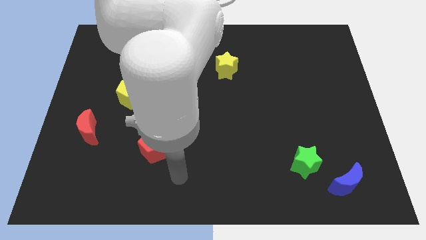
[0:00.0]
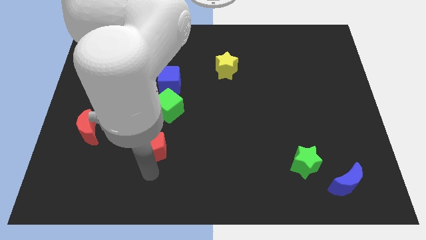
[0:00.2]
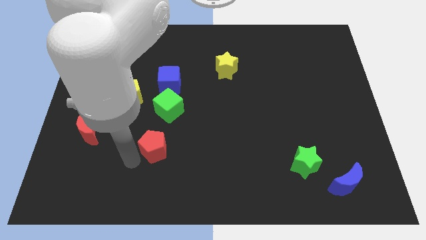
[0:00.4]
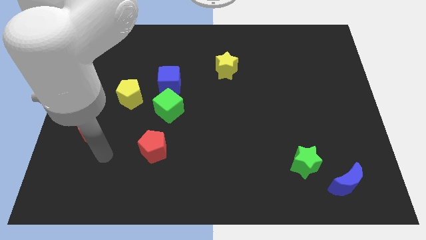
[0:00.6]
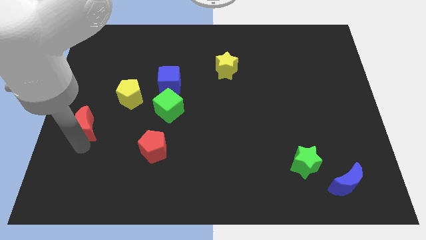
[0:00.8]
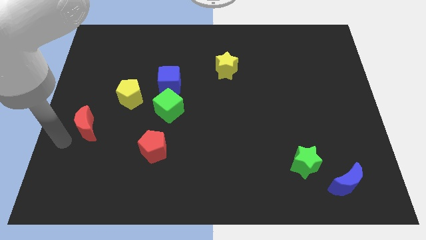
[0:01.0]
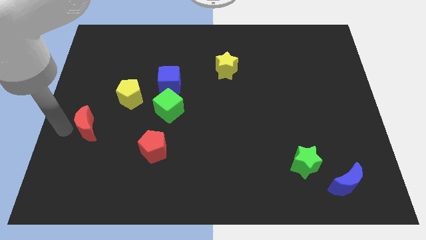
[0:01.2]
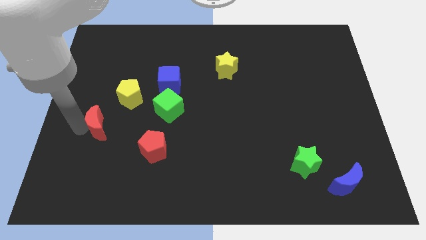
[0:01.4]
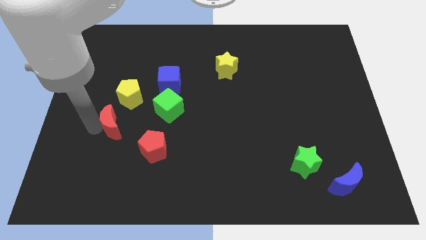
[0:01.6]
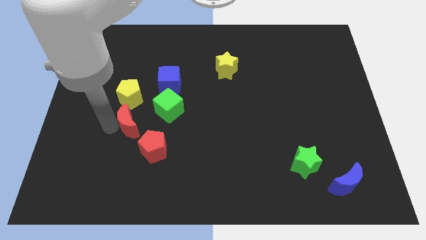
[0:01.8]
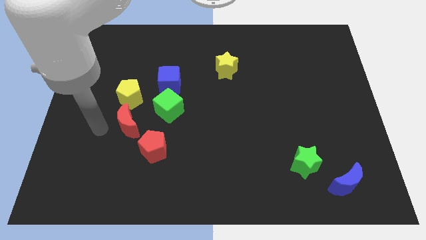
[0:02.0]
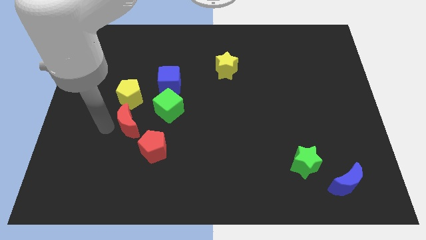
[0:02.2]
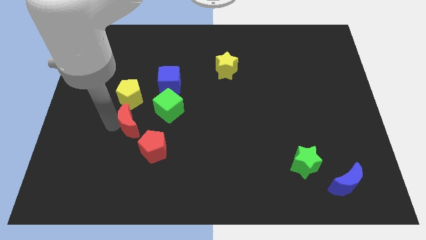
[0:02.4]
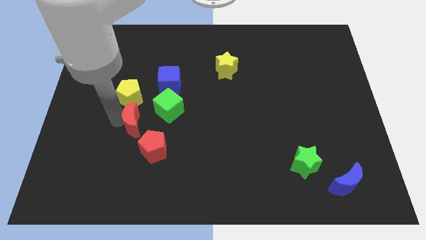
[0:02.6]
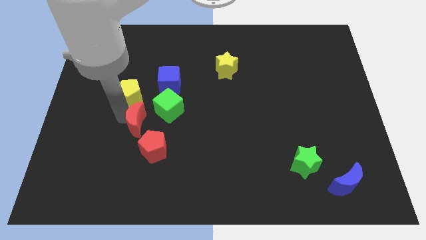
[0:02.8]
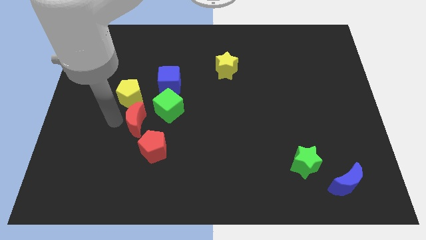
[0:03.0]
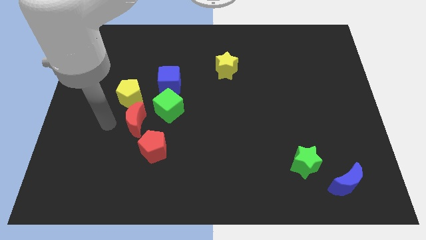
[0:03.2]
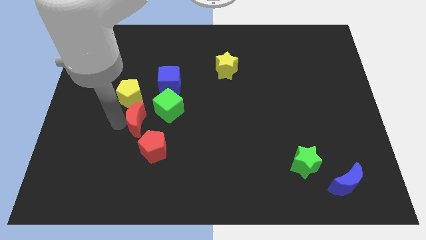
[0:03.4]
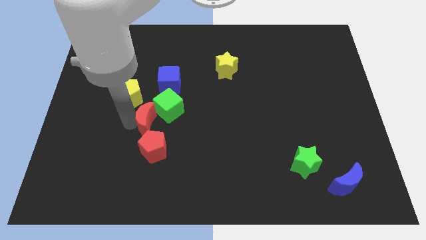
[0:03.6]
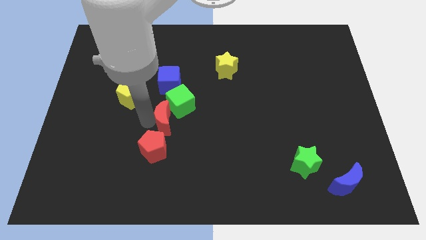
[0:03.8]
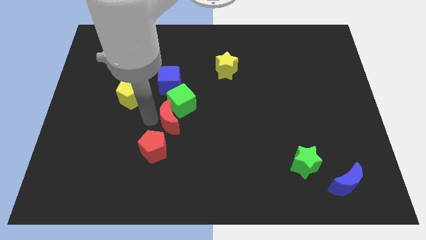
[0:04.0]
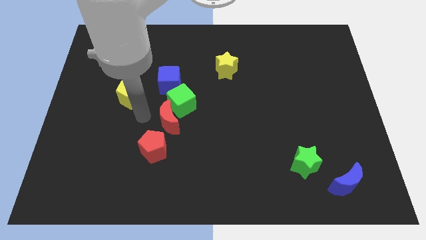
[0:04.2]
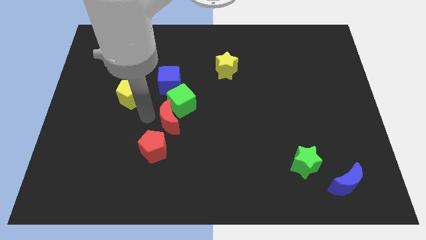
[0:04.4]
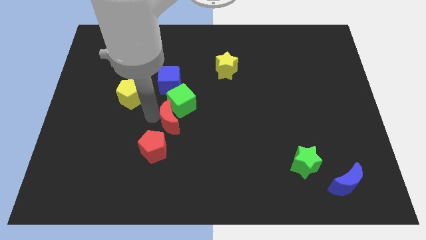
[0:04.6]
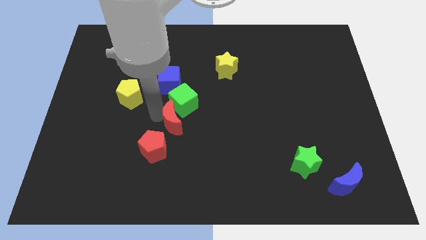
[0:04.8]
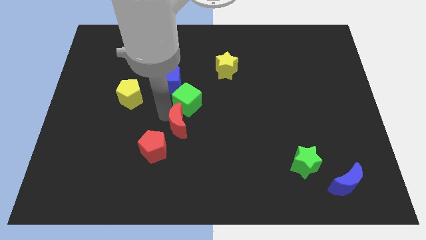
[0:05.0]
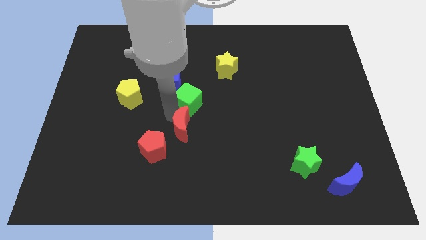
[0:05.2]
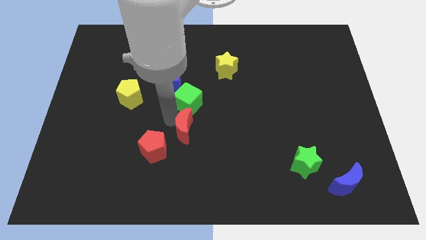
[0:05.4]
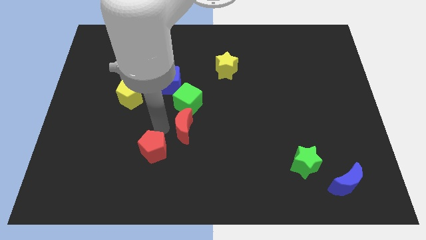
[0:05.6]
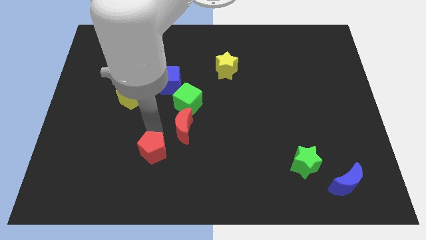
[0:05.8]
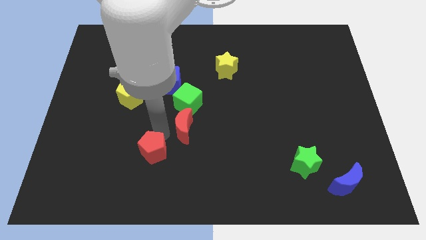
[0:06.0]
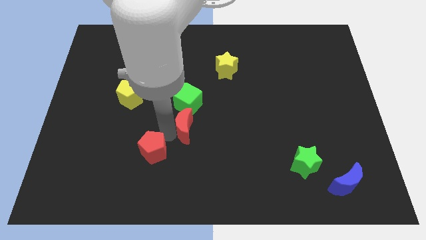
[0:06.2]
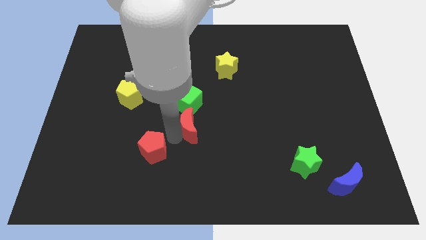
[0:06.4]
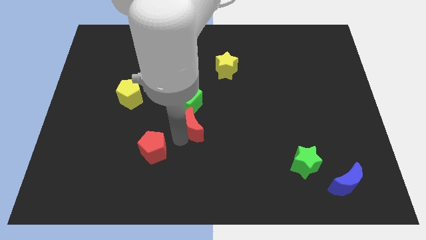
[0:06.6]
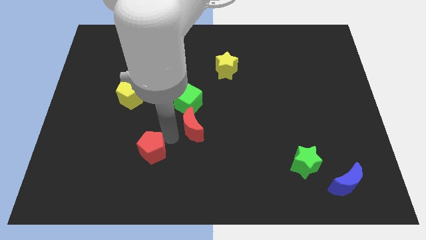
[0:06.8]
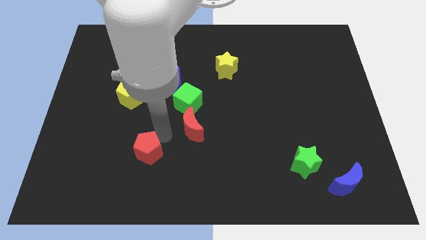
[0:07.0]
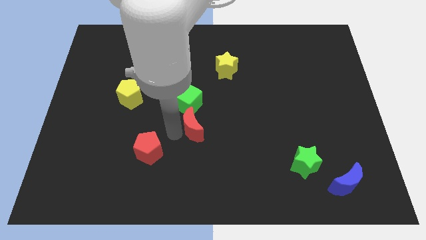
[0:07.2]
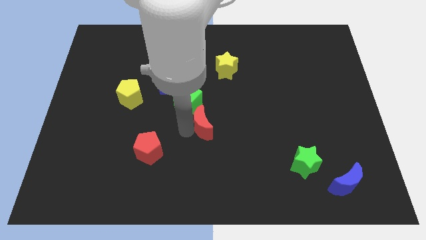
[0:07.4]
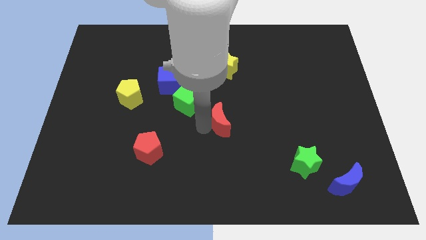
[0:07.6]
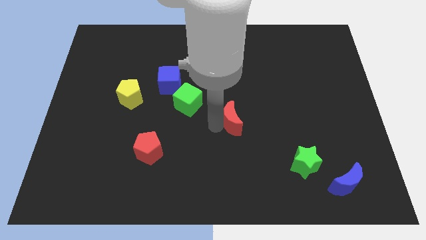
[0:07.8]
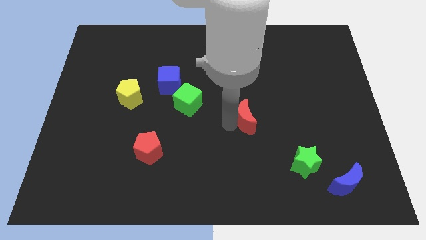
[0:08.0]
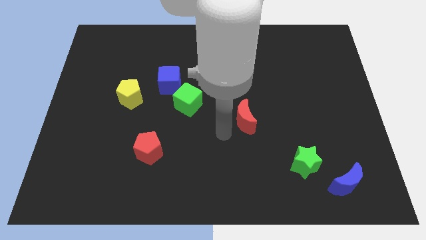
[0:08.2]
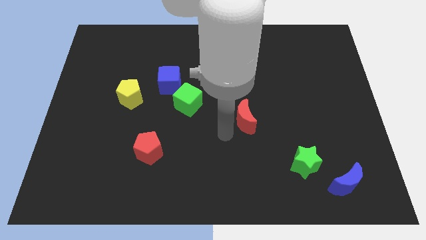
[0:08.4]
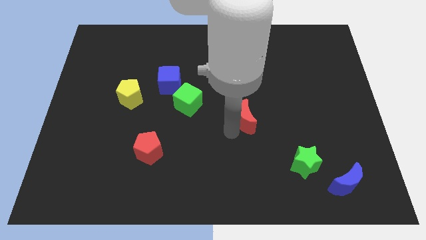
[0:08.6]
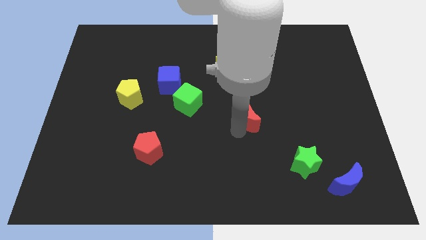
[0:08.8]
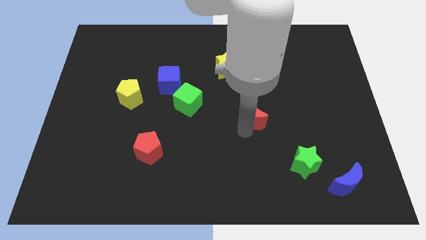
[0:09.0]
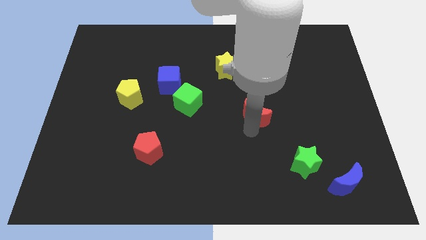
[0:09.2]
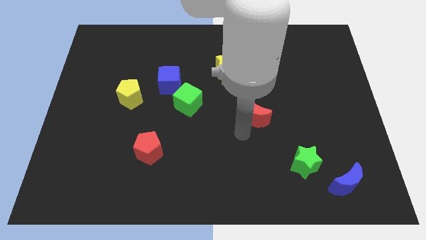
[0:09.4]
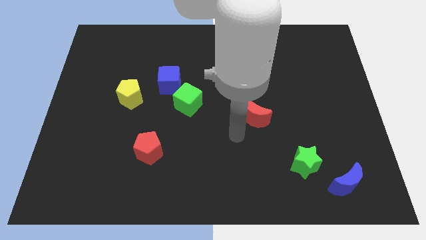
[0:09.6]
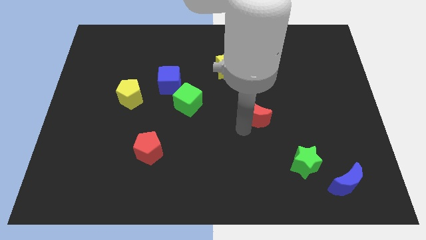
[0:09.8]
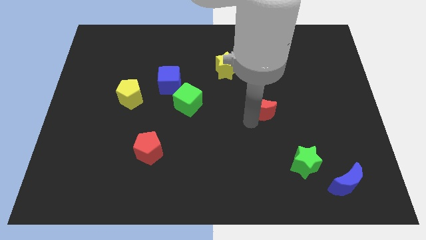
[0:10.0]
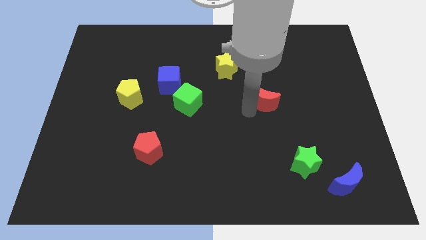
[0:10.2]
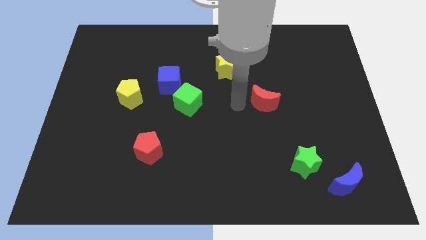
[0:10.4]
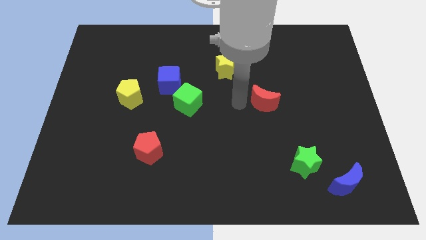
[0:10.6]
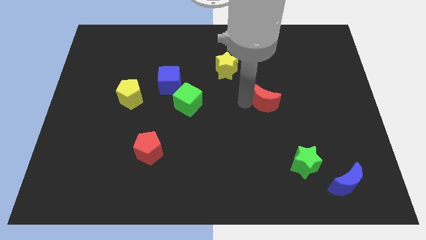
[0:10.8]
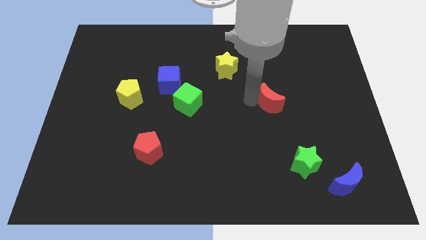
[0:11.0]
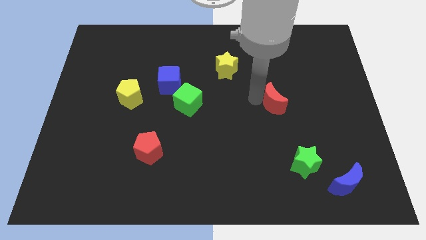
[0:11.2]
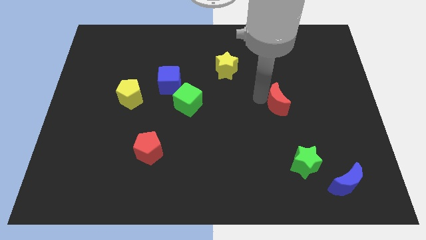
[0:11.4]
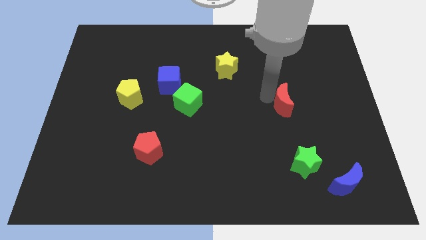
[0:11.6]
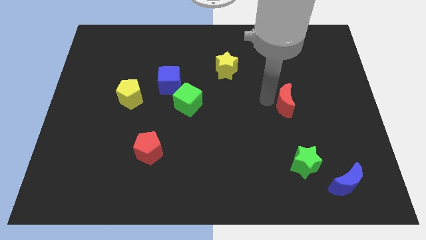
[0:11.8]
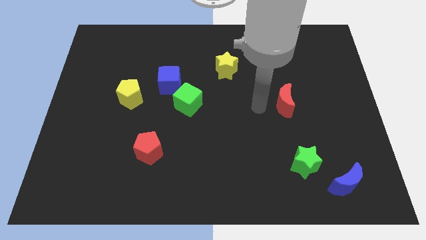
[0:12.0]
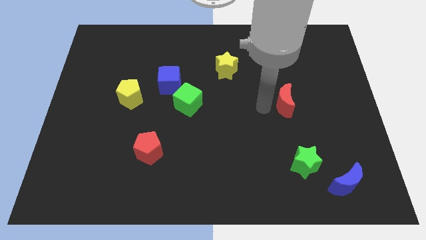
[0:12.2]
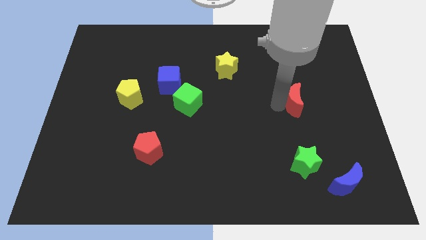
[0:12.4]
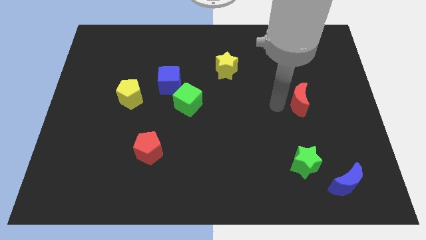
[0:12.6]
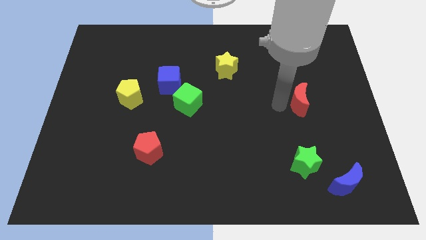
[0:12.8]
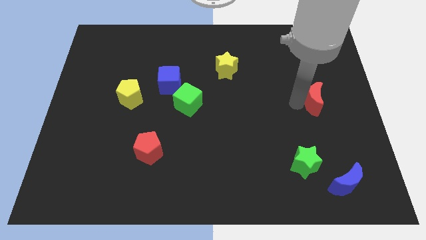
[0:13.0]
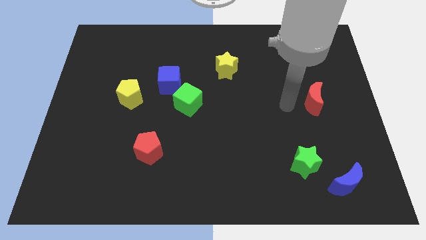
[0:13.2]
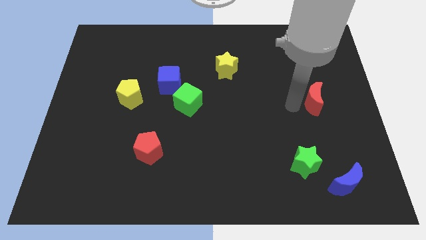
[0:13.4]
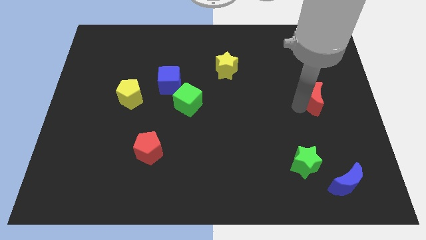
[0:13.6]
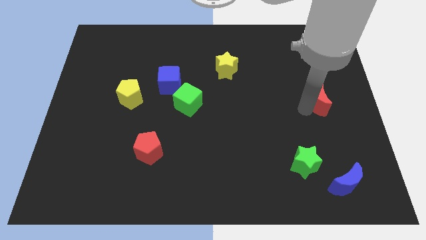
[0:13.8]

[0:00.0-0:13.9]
push the red moon to the right side of the board
